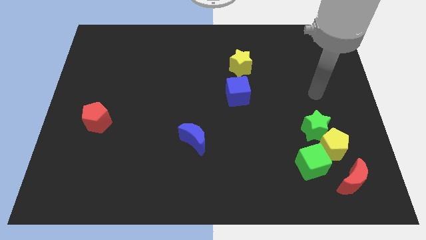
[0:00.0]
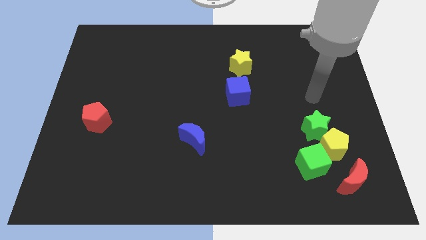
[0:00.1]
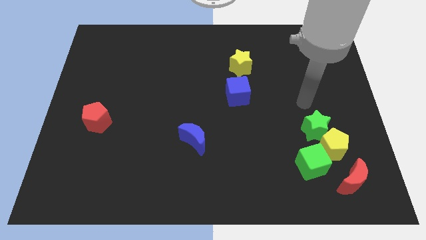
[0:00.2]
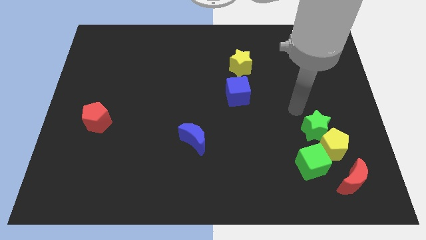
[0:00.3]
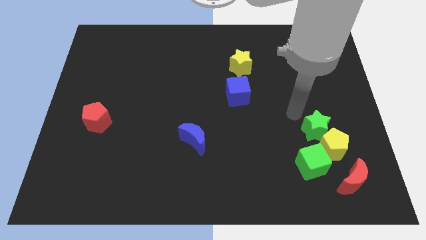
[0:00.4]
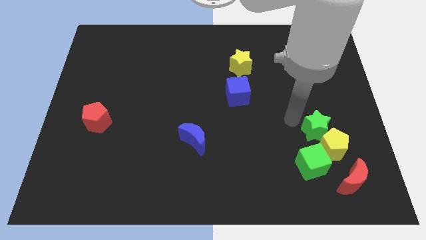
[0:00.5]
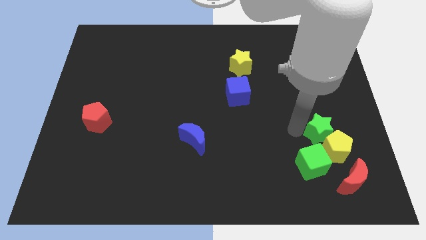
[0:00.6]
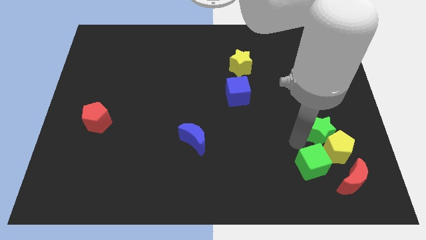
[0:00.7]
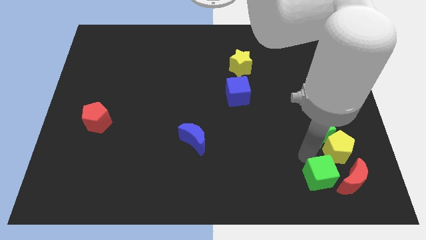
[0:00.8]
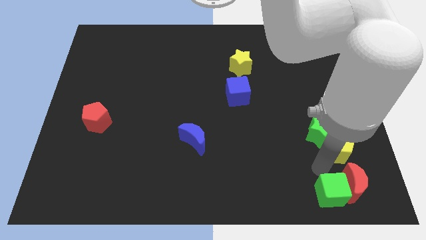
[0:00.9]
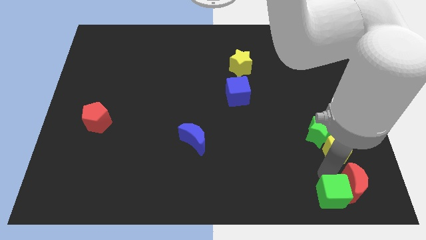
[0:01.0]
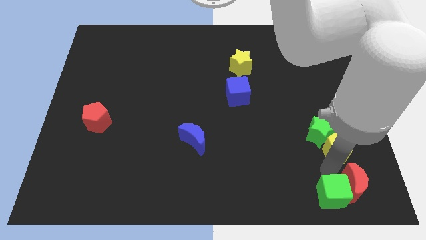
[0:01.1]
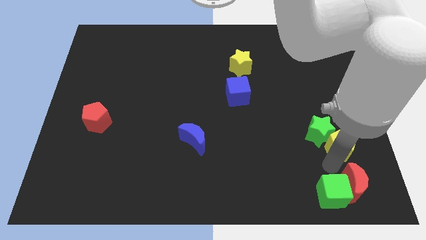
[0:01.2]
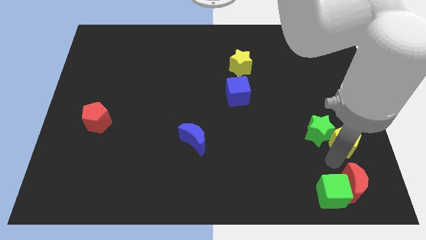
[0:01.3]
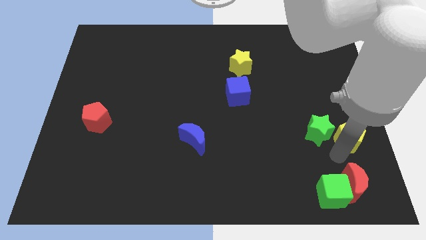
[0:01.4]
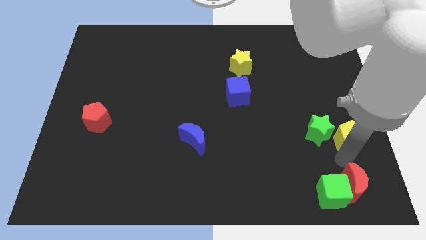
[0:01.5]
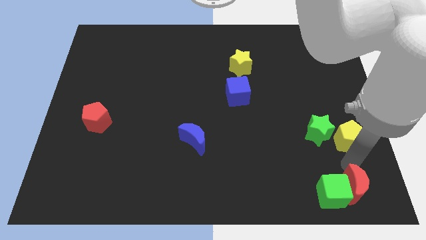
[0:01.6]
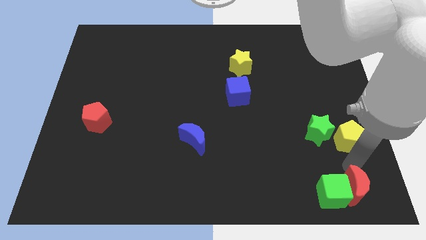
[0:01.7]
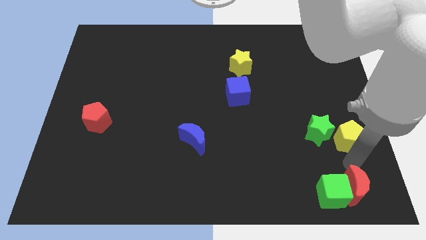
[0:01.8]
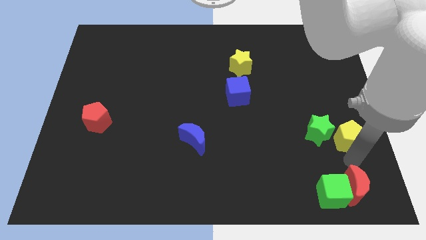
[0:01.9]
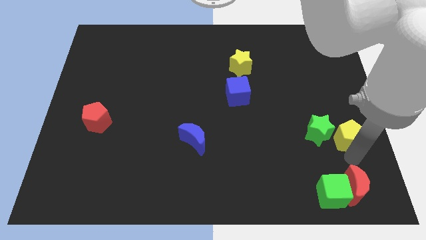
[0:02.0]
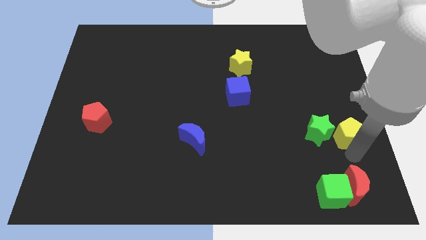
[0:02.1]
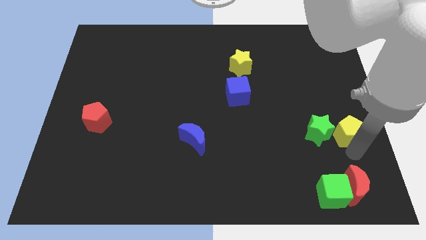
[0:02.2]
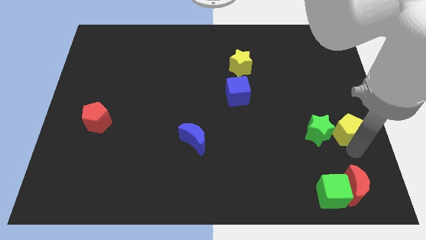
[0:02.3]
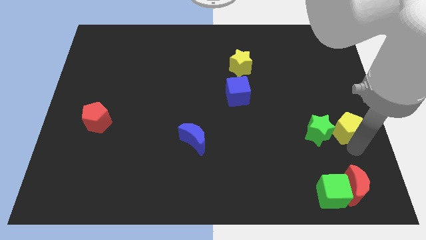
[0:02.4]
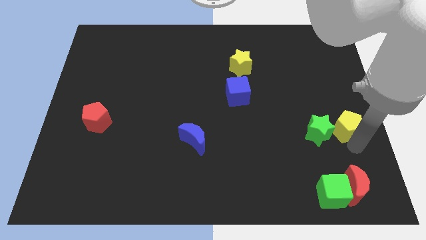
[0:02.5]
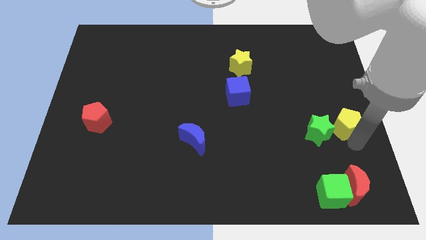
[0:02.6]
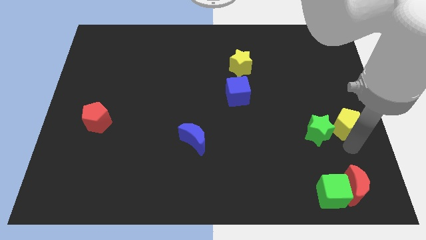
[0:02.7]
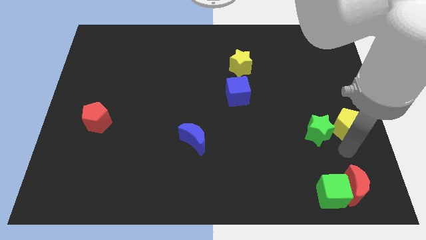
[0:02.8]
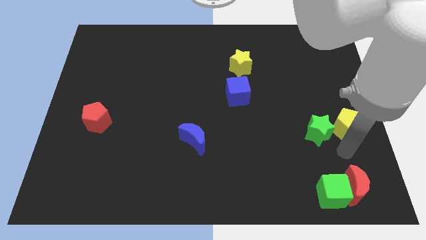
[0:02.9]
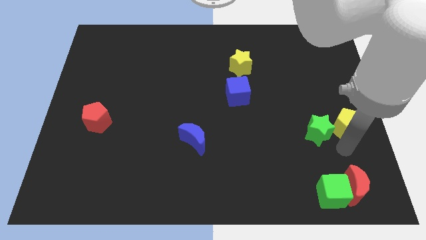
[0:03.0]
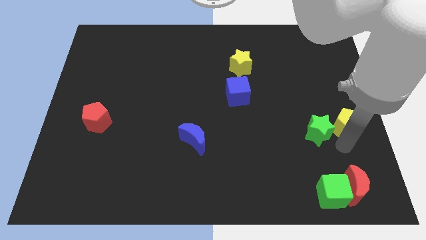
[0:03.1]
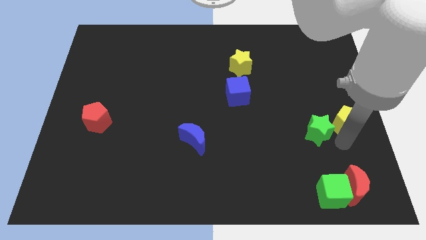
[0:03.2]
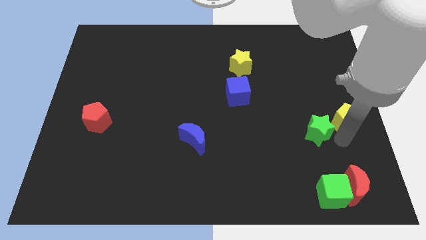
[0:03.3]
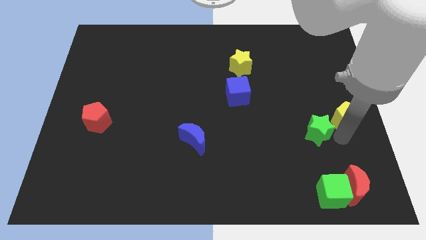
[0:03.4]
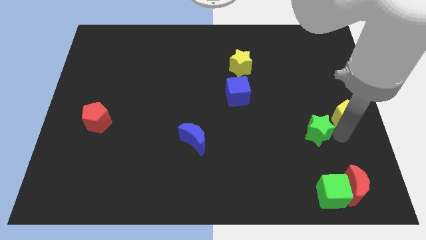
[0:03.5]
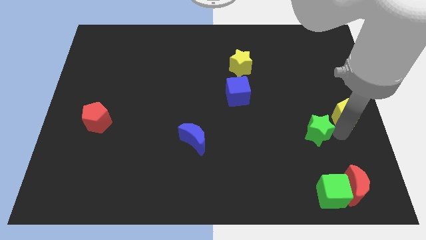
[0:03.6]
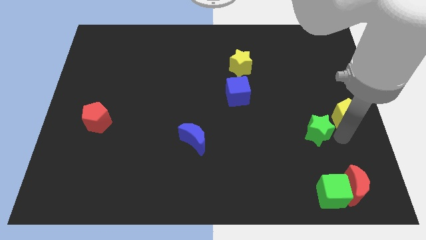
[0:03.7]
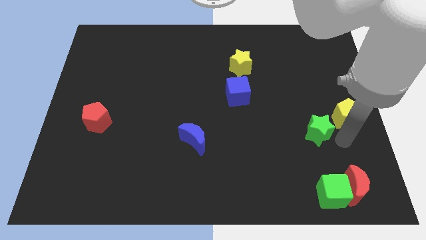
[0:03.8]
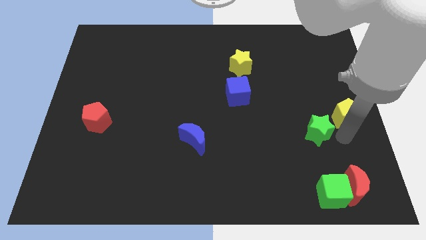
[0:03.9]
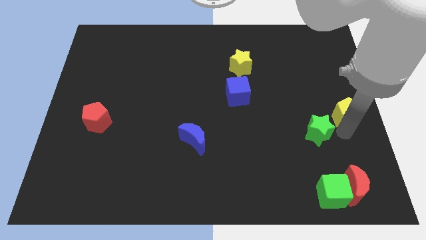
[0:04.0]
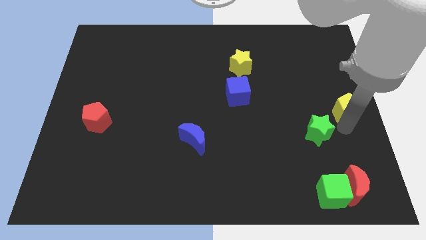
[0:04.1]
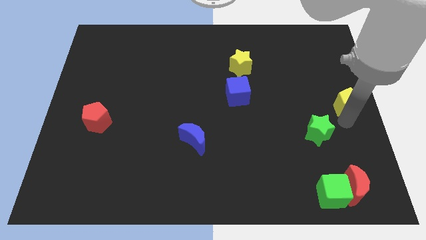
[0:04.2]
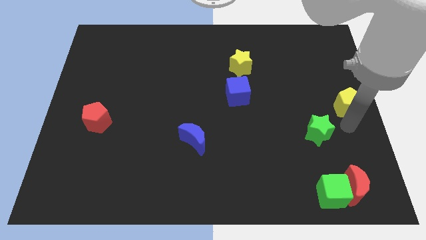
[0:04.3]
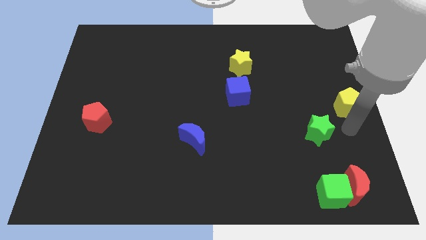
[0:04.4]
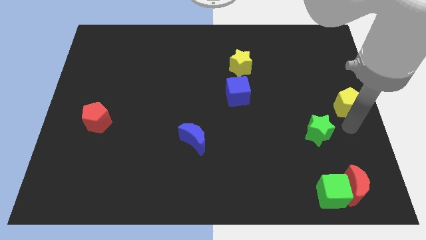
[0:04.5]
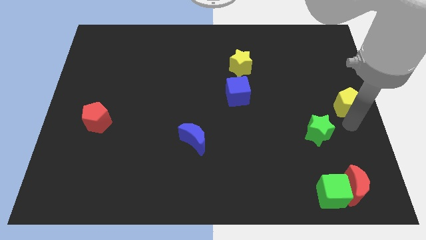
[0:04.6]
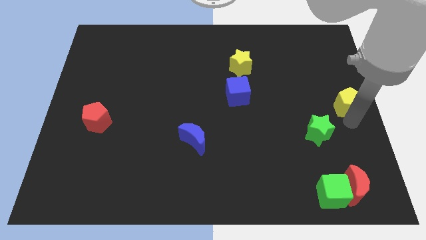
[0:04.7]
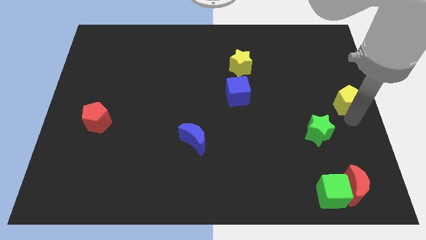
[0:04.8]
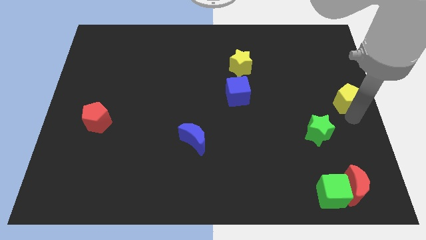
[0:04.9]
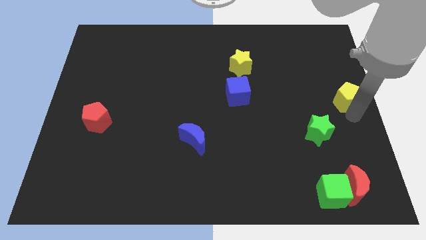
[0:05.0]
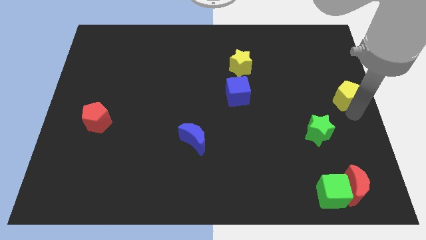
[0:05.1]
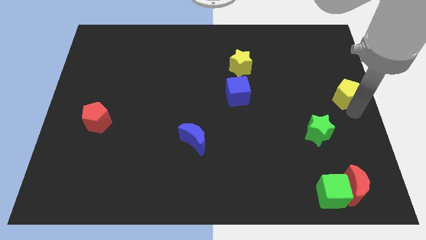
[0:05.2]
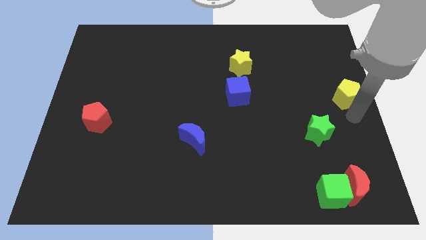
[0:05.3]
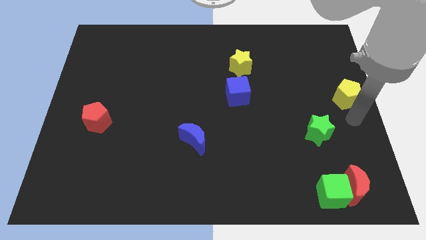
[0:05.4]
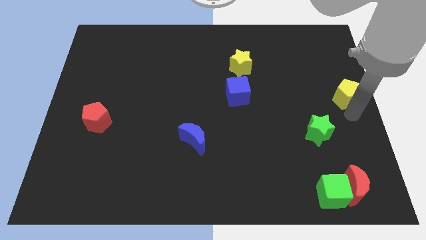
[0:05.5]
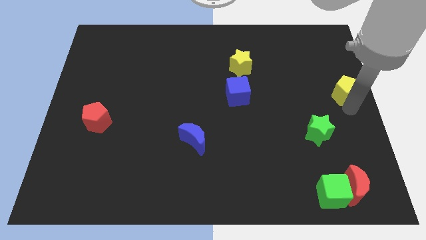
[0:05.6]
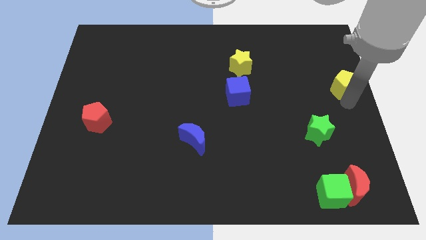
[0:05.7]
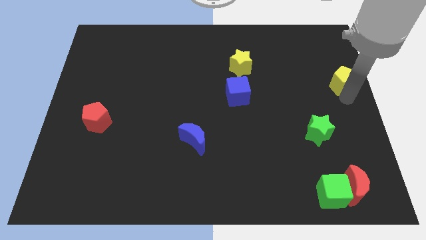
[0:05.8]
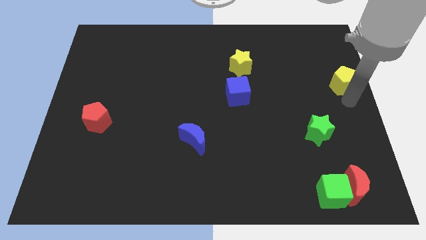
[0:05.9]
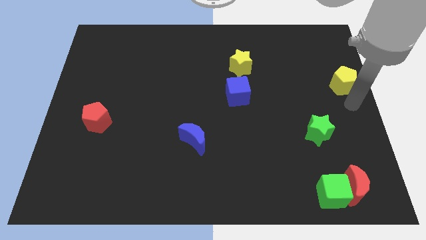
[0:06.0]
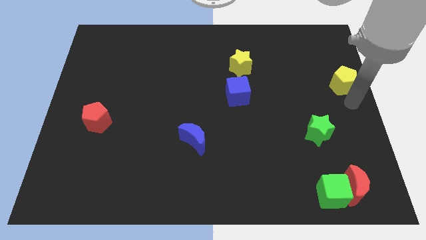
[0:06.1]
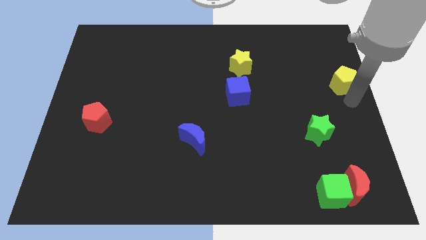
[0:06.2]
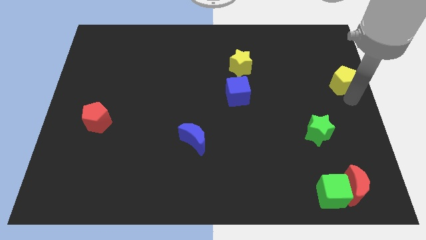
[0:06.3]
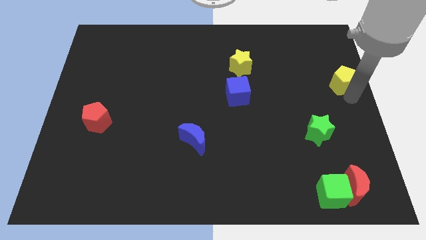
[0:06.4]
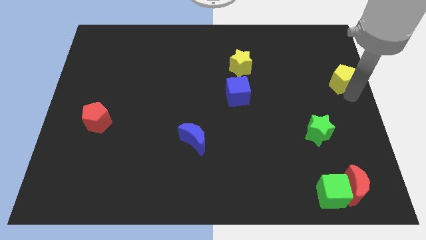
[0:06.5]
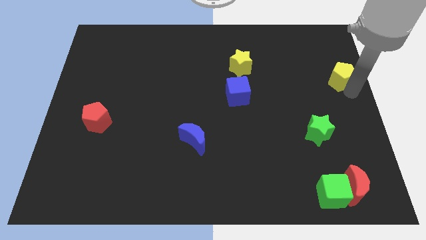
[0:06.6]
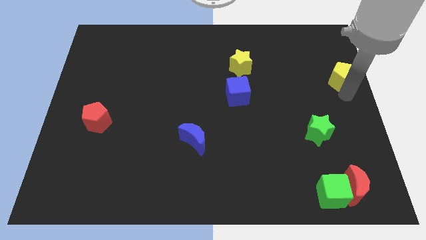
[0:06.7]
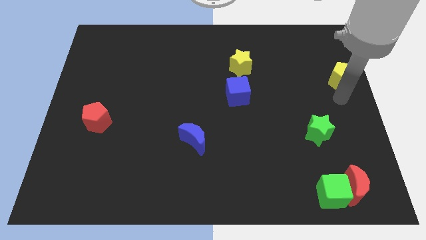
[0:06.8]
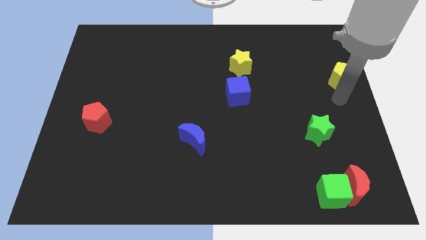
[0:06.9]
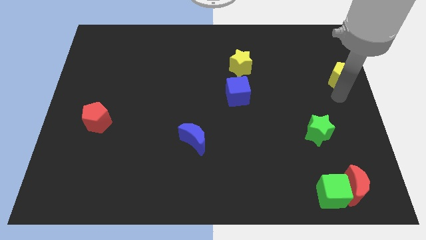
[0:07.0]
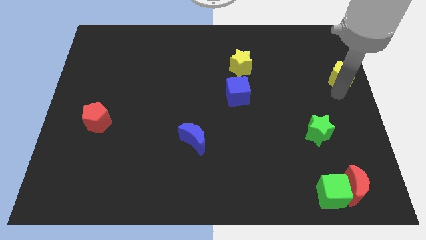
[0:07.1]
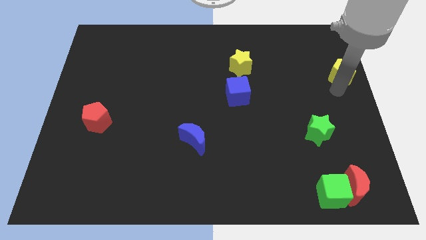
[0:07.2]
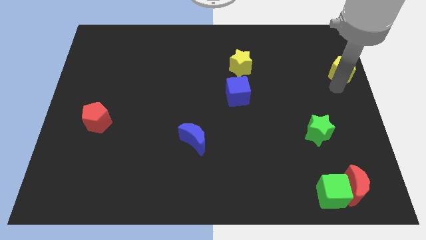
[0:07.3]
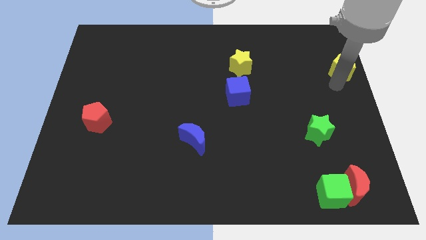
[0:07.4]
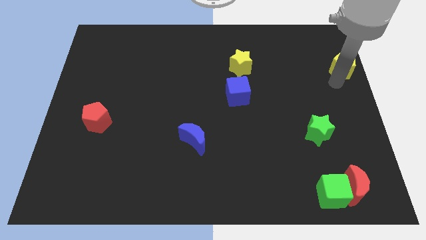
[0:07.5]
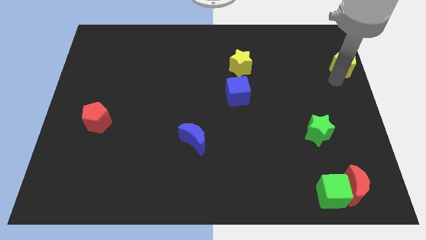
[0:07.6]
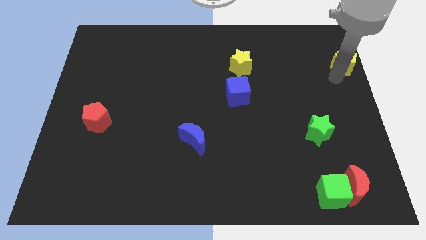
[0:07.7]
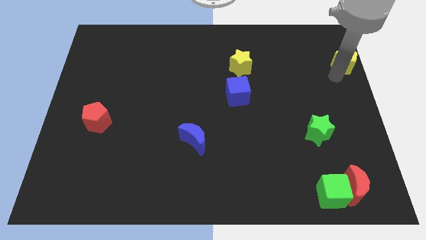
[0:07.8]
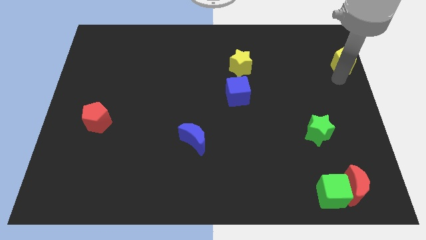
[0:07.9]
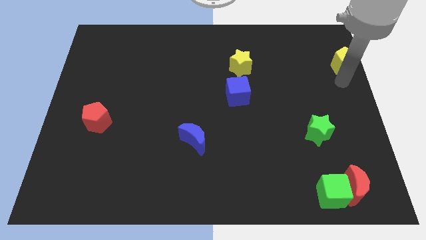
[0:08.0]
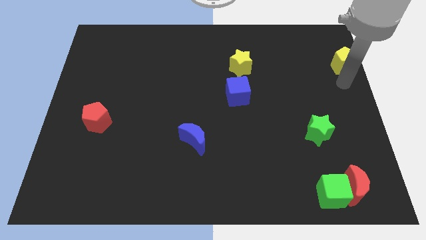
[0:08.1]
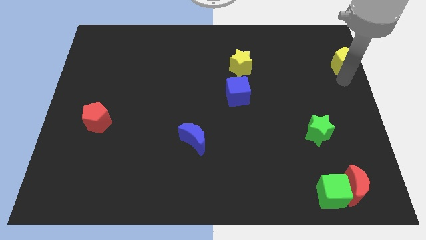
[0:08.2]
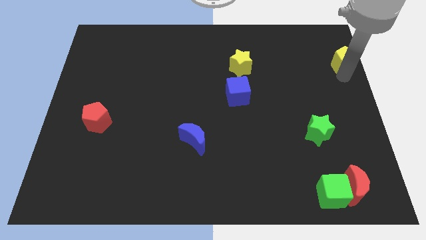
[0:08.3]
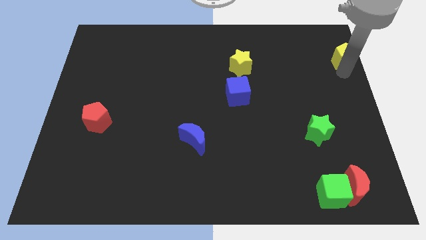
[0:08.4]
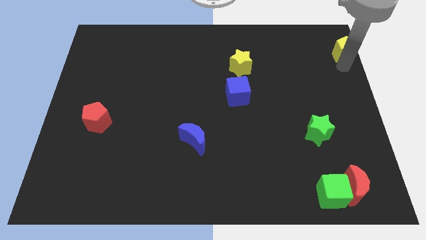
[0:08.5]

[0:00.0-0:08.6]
move the yellow pentagon to the top right
